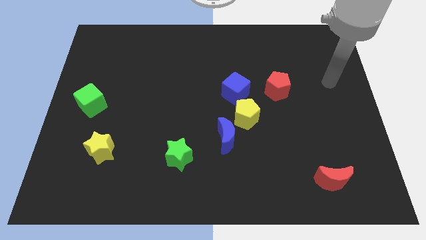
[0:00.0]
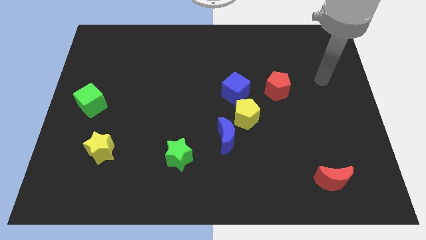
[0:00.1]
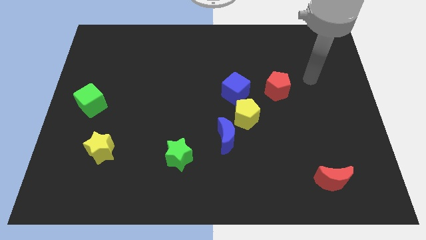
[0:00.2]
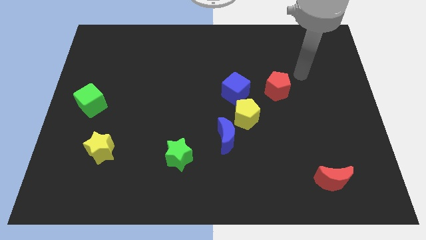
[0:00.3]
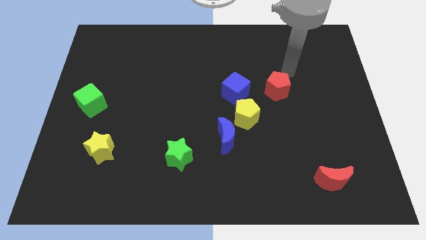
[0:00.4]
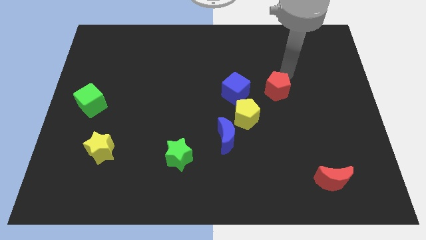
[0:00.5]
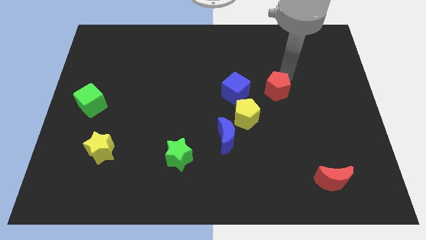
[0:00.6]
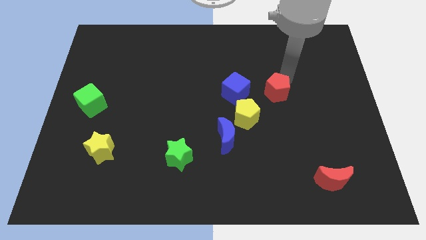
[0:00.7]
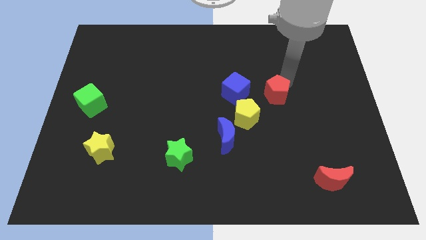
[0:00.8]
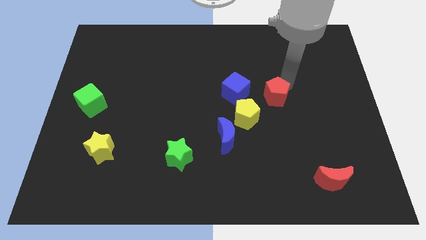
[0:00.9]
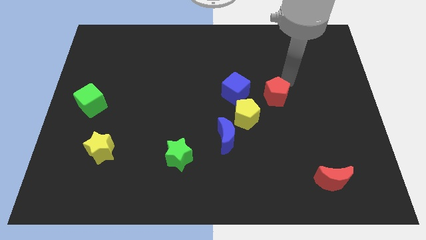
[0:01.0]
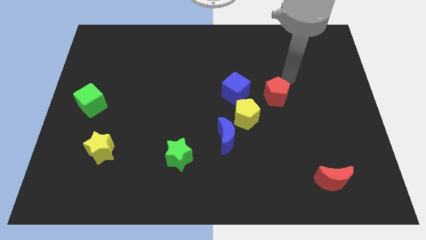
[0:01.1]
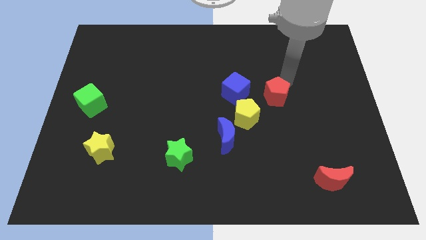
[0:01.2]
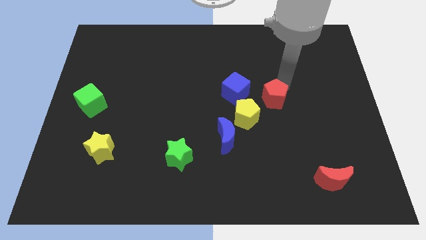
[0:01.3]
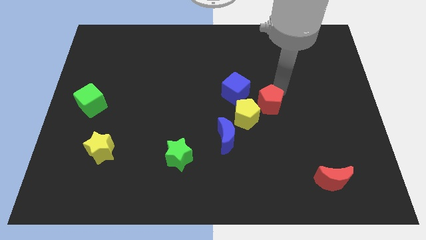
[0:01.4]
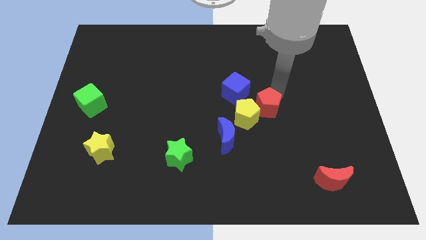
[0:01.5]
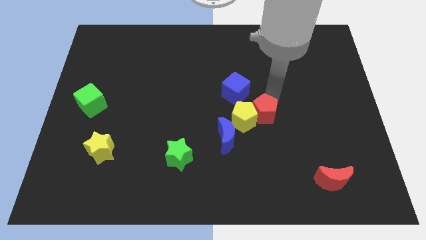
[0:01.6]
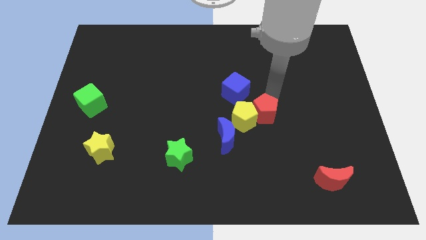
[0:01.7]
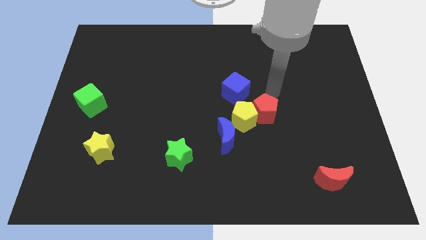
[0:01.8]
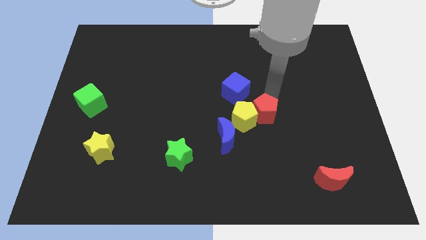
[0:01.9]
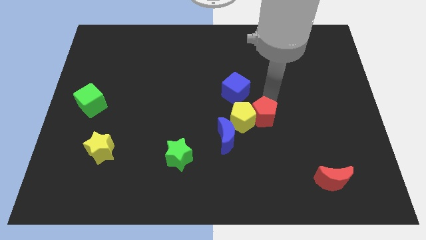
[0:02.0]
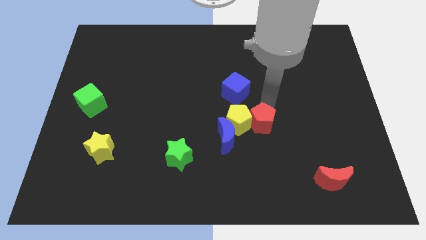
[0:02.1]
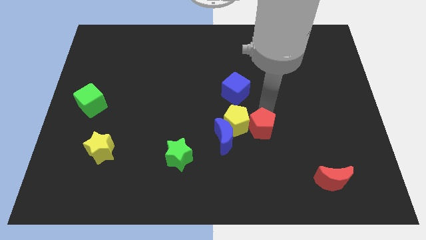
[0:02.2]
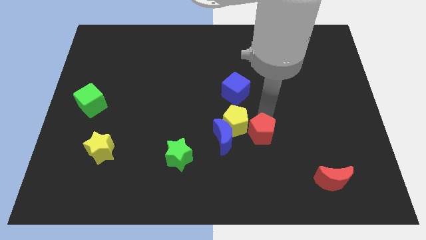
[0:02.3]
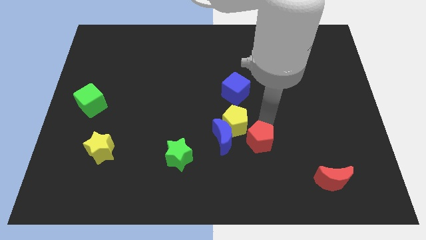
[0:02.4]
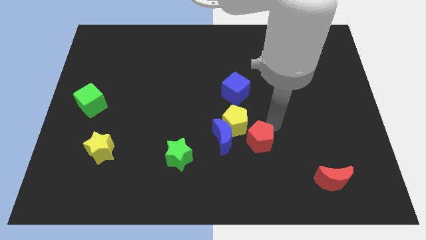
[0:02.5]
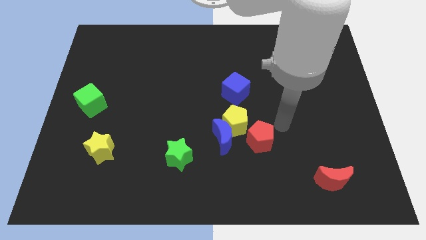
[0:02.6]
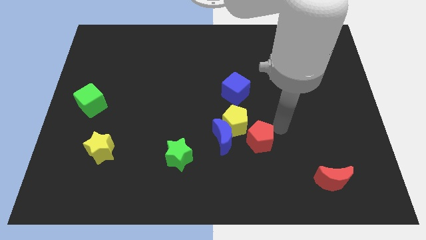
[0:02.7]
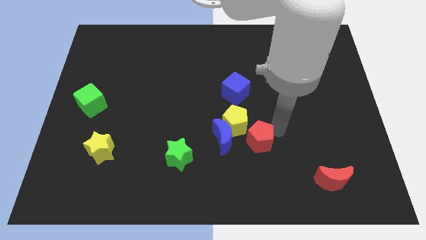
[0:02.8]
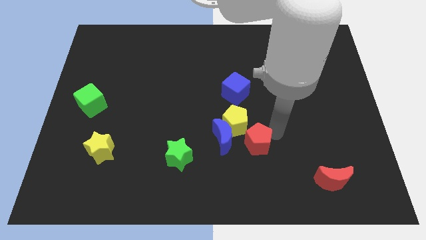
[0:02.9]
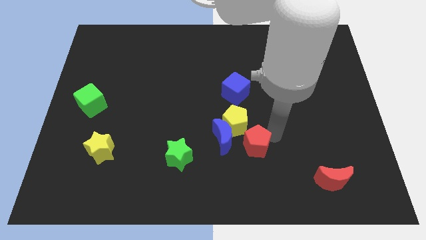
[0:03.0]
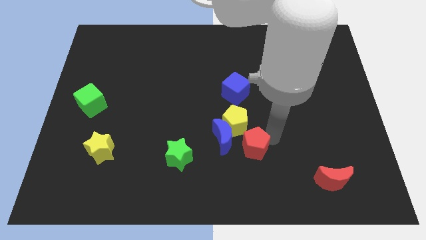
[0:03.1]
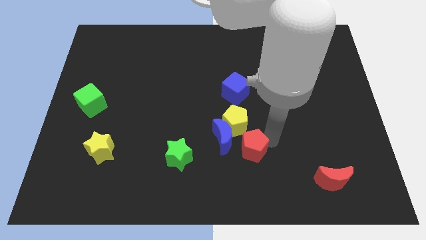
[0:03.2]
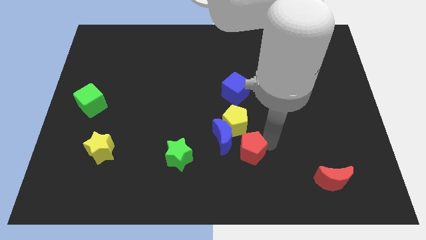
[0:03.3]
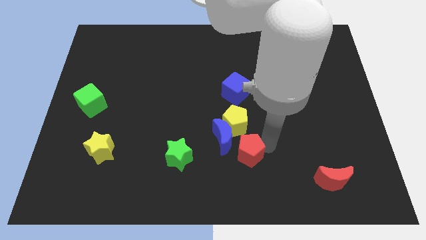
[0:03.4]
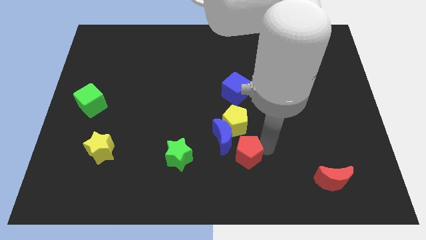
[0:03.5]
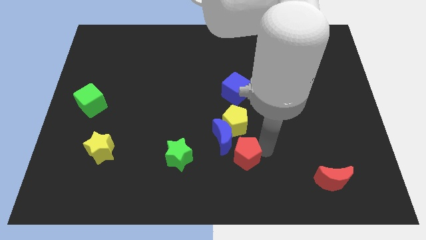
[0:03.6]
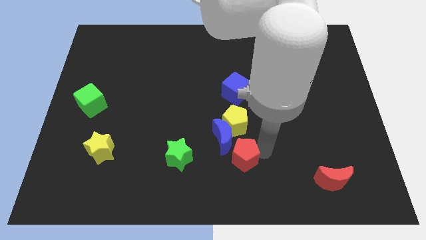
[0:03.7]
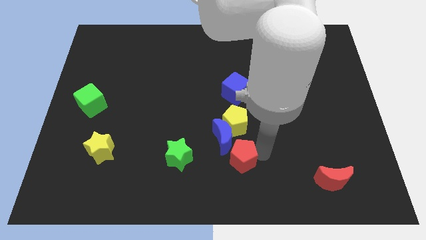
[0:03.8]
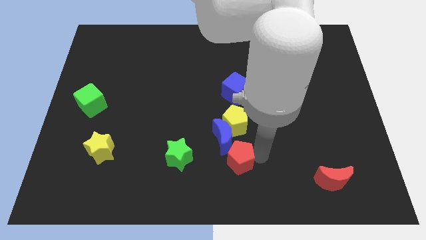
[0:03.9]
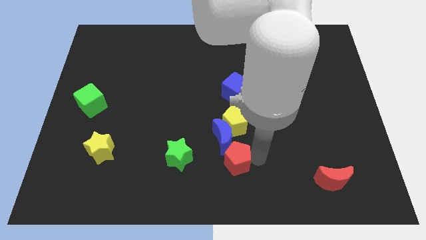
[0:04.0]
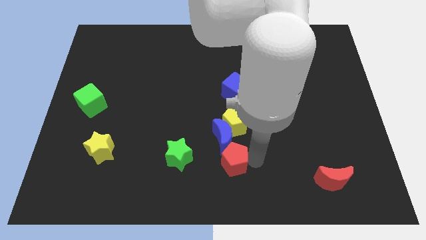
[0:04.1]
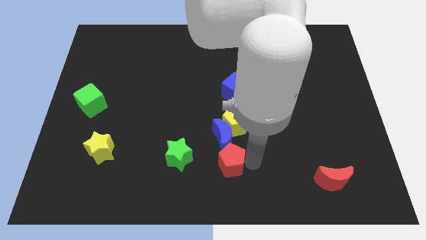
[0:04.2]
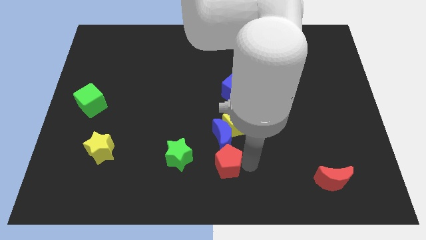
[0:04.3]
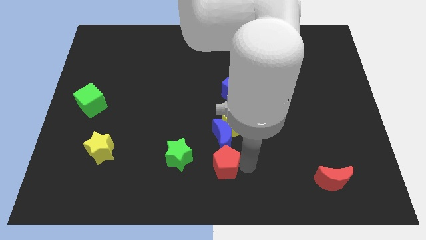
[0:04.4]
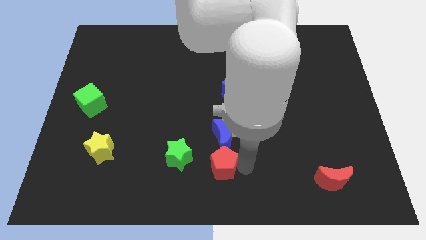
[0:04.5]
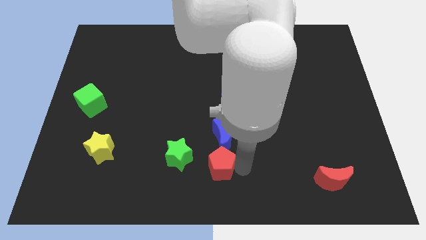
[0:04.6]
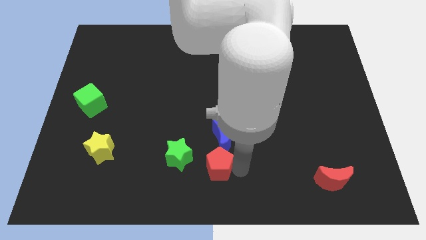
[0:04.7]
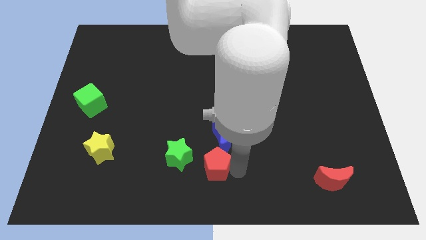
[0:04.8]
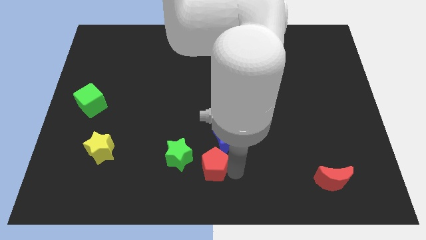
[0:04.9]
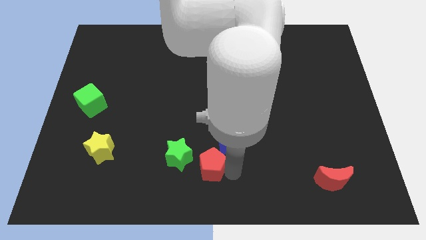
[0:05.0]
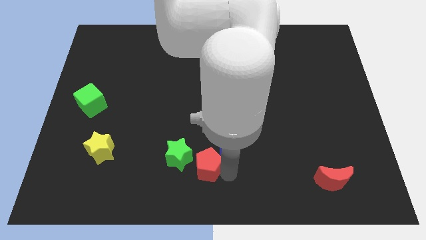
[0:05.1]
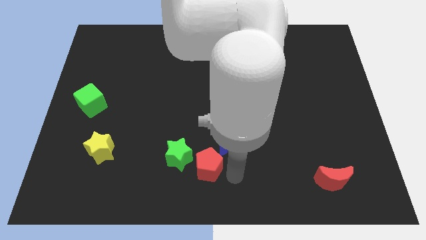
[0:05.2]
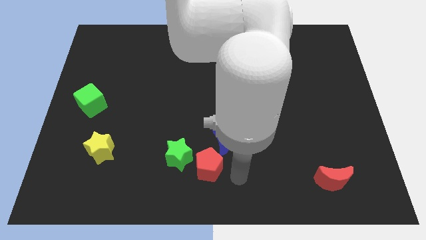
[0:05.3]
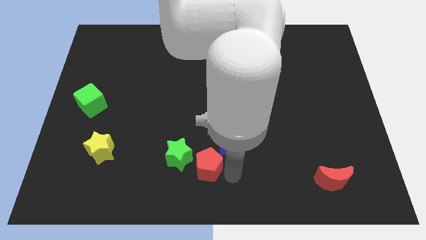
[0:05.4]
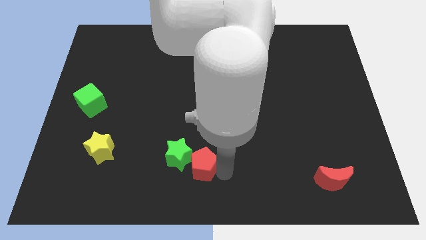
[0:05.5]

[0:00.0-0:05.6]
push the red pentagon towards the green star
